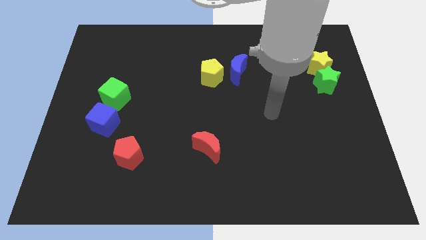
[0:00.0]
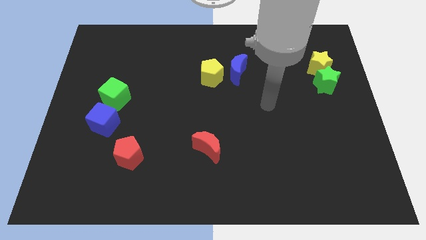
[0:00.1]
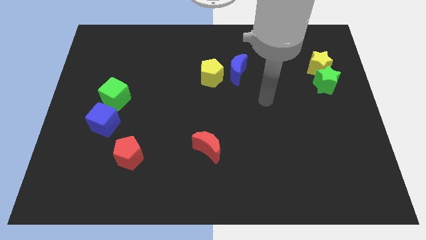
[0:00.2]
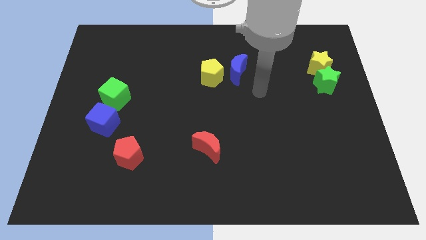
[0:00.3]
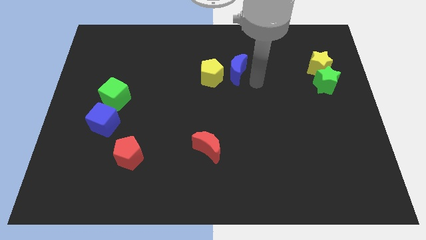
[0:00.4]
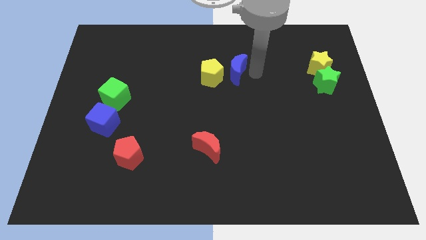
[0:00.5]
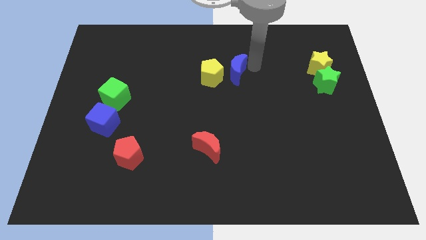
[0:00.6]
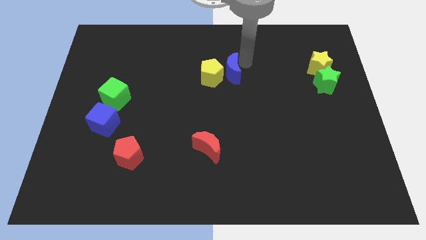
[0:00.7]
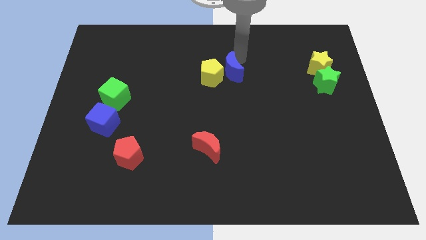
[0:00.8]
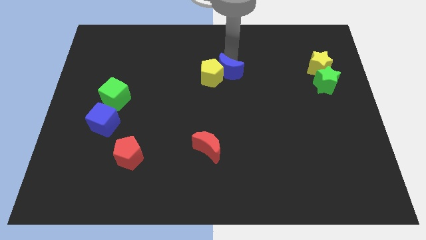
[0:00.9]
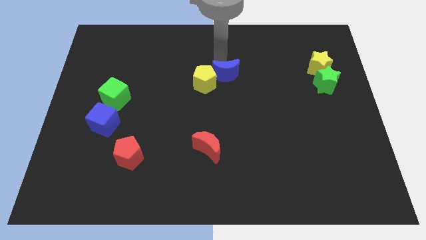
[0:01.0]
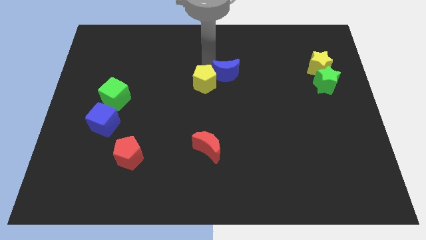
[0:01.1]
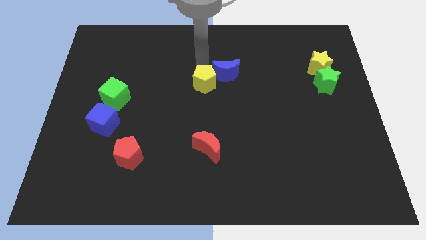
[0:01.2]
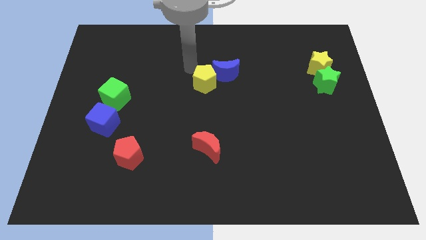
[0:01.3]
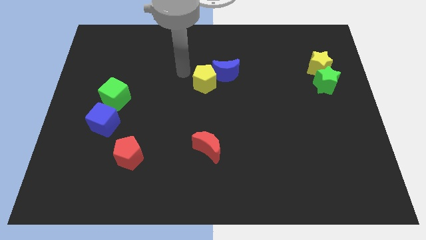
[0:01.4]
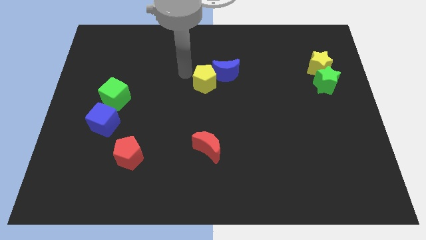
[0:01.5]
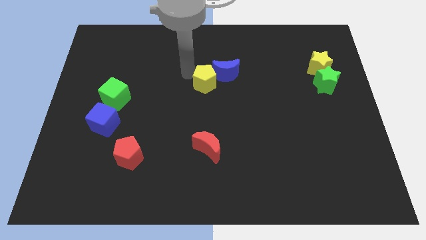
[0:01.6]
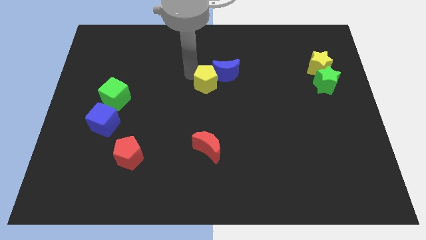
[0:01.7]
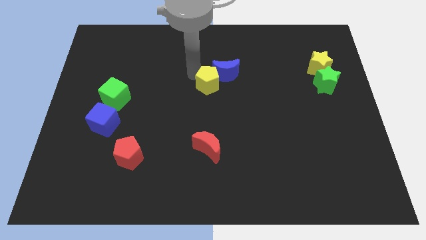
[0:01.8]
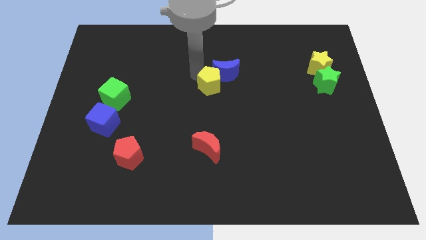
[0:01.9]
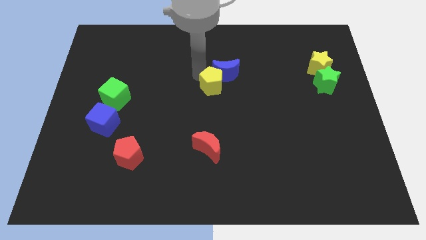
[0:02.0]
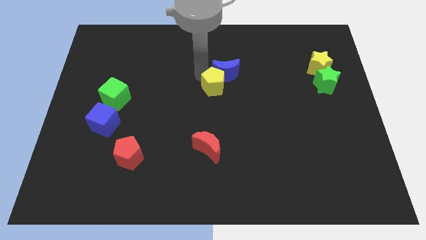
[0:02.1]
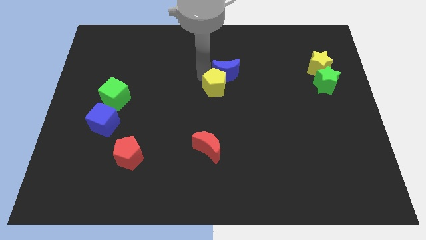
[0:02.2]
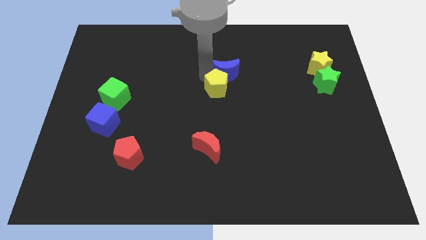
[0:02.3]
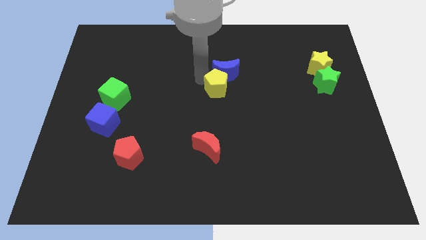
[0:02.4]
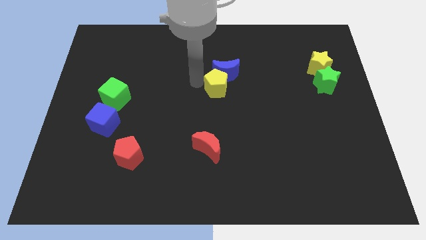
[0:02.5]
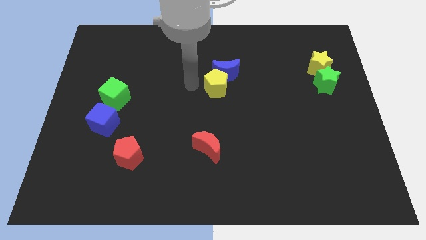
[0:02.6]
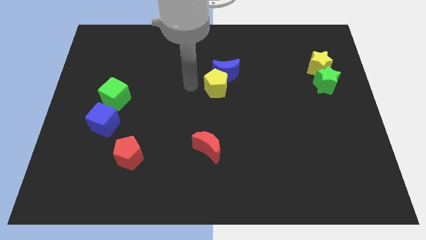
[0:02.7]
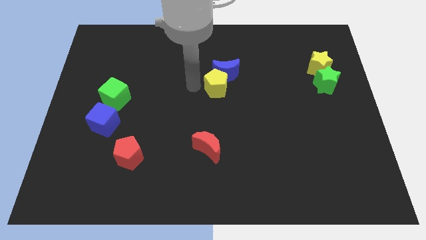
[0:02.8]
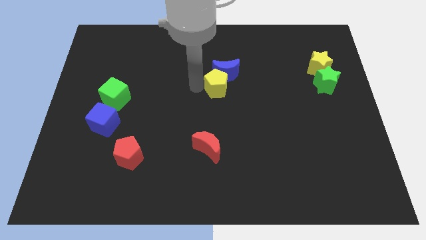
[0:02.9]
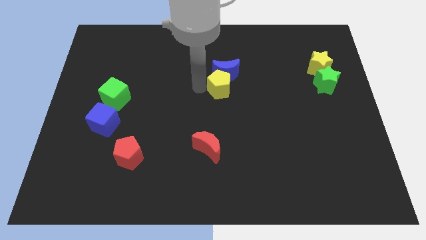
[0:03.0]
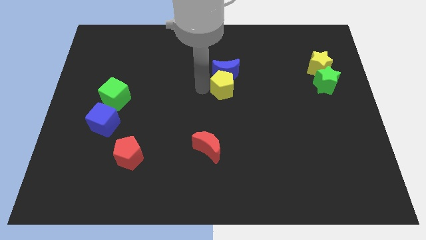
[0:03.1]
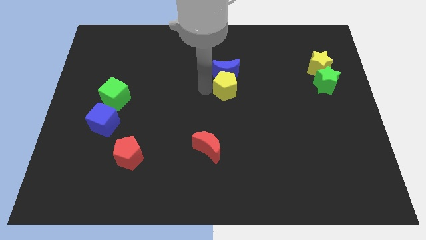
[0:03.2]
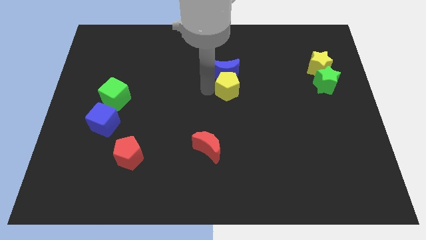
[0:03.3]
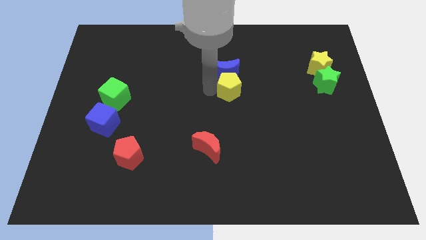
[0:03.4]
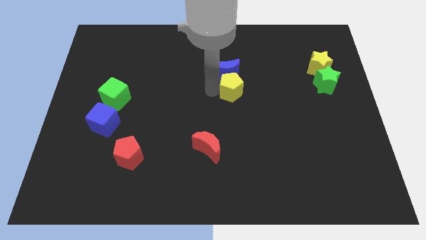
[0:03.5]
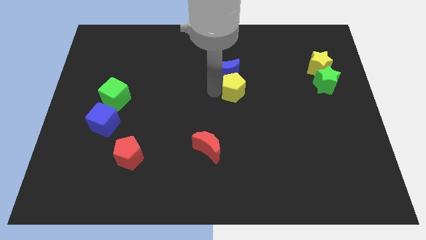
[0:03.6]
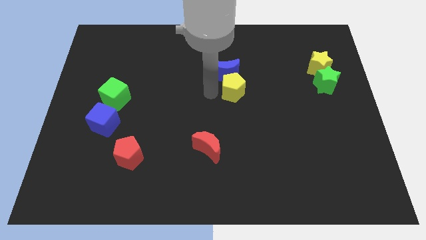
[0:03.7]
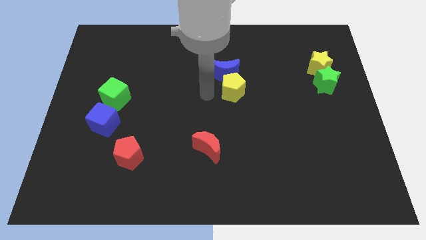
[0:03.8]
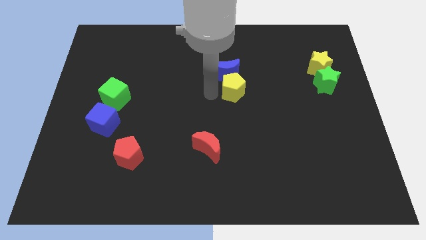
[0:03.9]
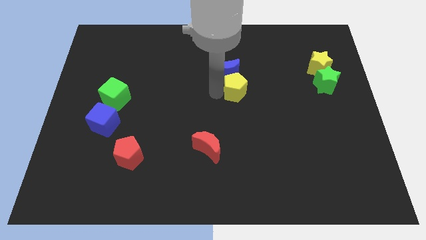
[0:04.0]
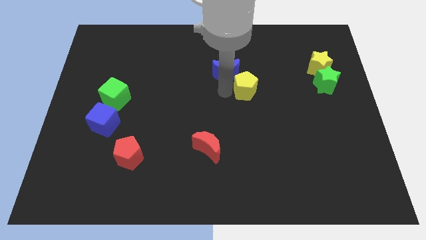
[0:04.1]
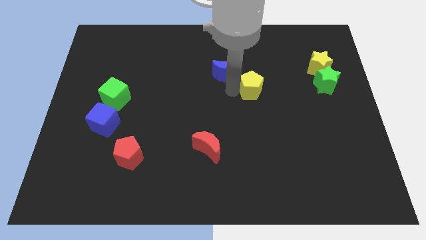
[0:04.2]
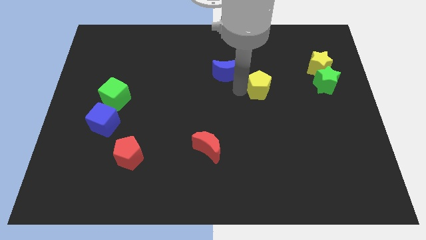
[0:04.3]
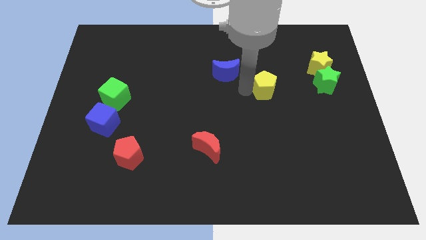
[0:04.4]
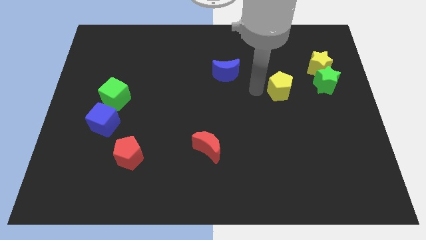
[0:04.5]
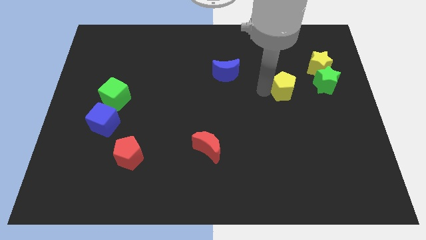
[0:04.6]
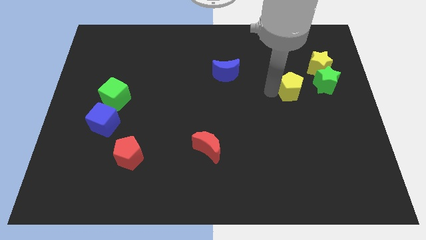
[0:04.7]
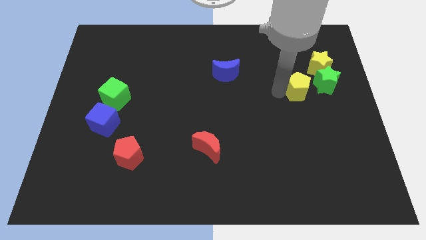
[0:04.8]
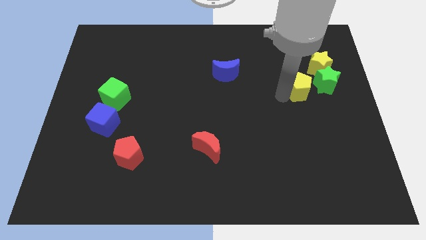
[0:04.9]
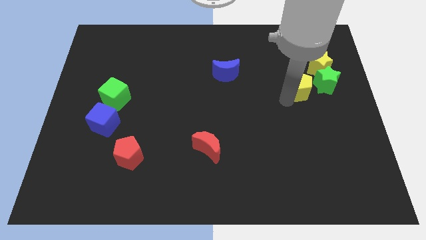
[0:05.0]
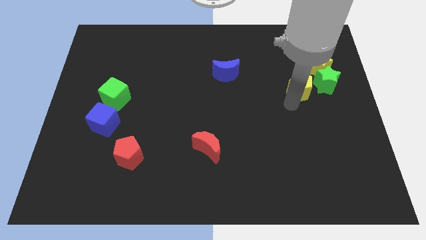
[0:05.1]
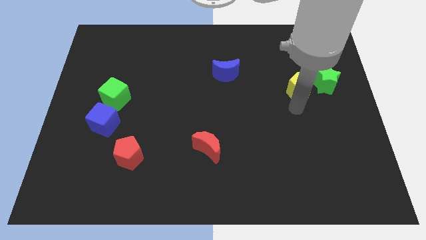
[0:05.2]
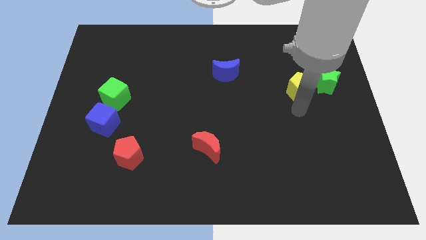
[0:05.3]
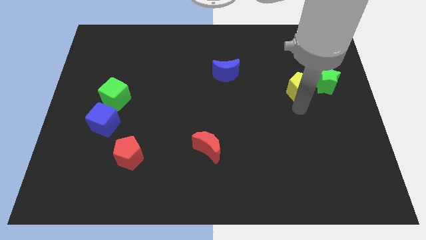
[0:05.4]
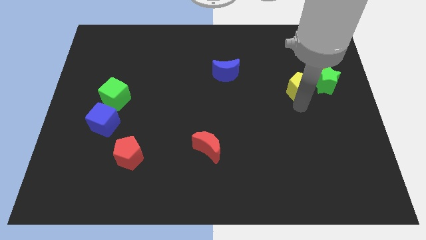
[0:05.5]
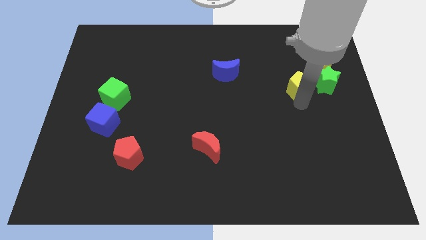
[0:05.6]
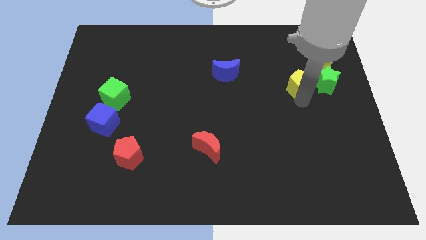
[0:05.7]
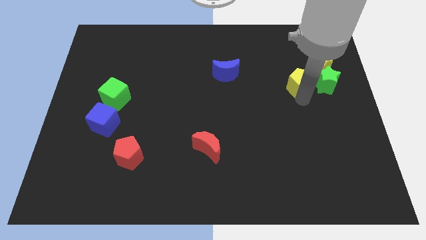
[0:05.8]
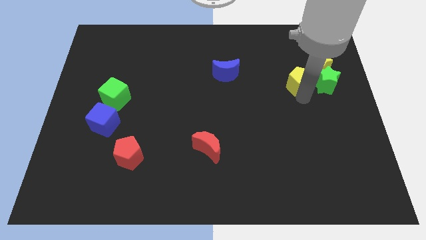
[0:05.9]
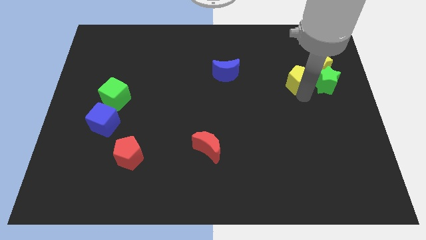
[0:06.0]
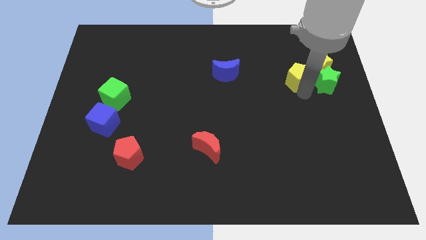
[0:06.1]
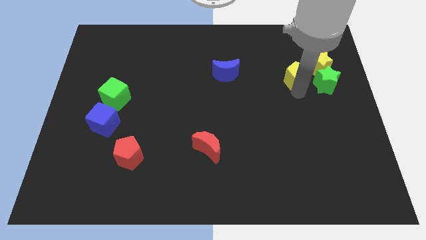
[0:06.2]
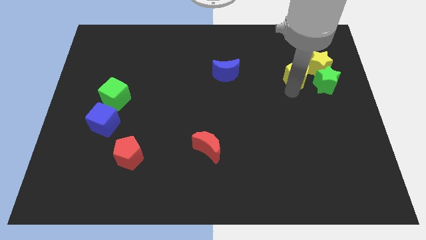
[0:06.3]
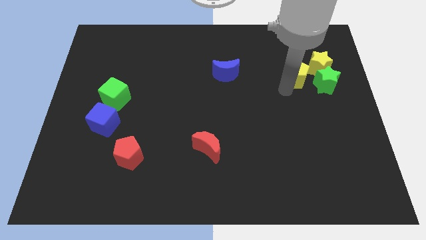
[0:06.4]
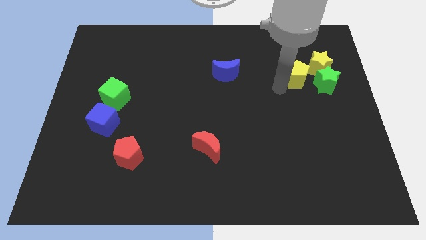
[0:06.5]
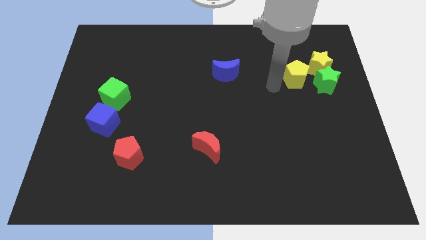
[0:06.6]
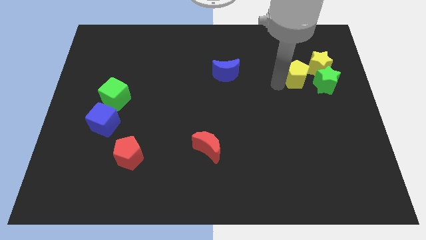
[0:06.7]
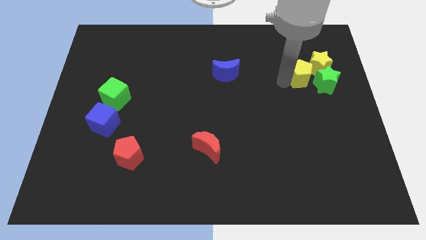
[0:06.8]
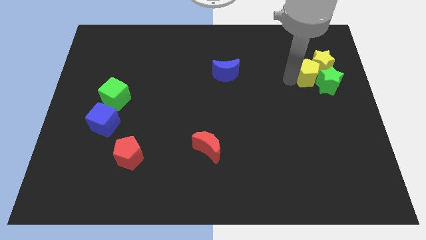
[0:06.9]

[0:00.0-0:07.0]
put the yellow pentagon towards the yellow star
